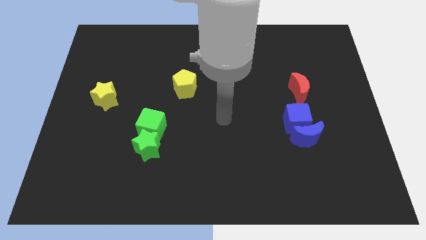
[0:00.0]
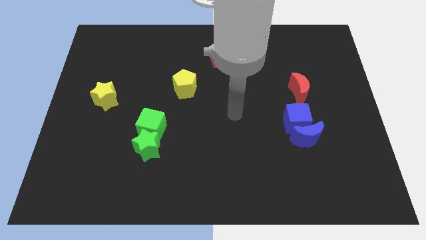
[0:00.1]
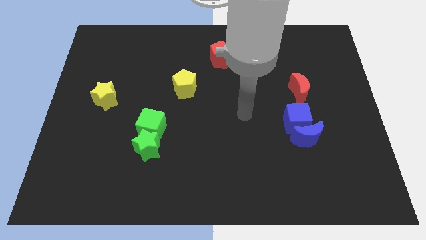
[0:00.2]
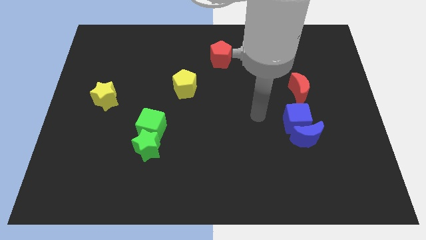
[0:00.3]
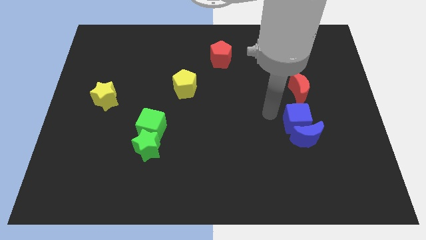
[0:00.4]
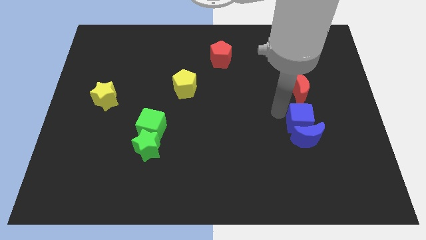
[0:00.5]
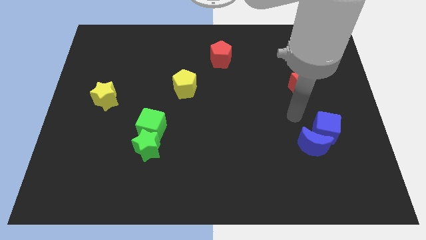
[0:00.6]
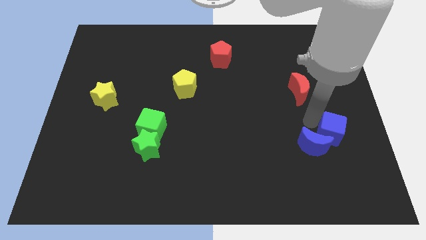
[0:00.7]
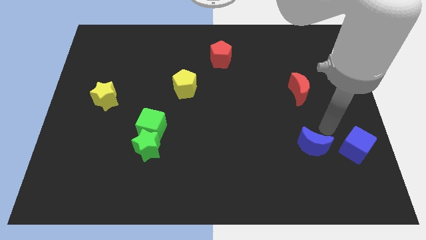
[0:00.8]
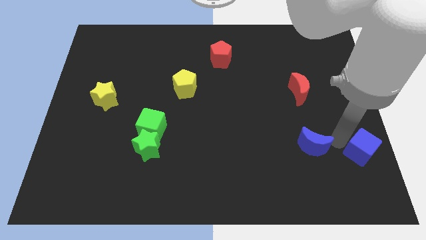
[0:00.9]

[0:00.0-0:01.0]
pull the blue moon apart from the blue cube

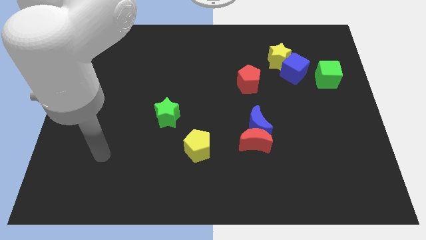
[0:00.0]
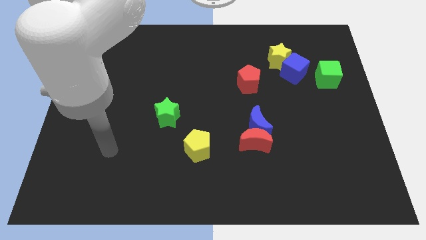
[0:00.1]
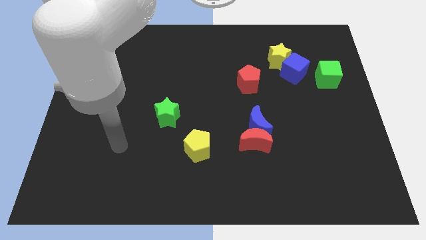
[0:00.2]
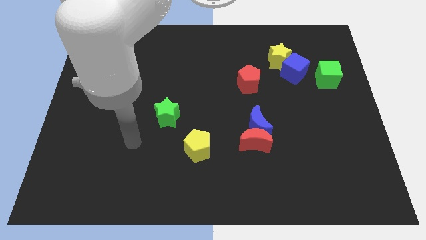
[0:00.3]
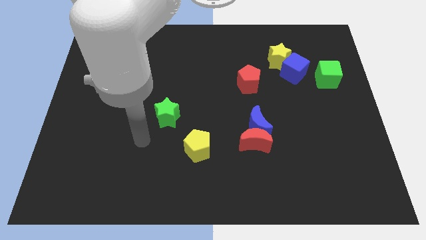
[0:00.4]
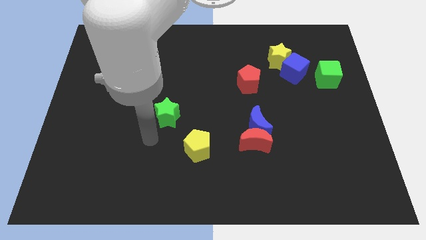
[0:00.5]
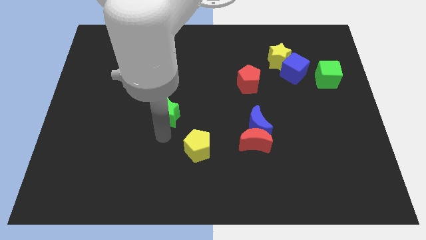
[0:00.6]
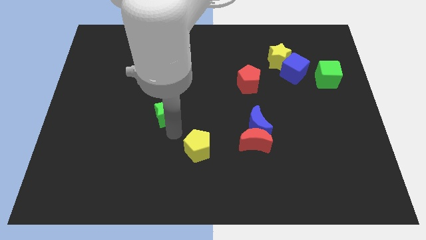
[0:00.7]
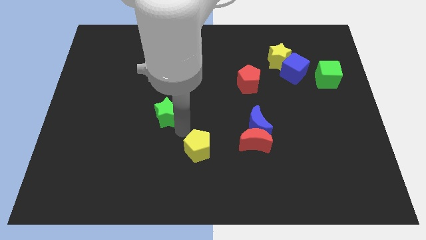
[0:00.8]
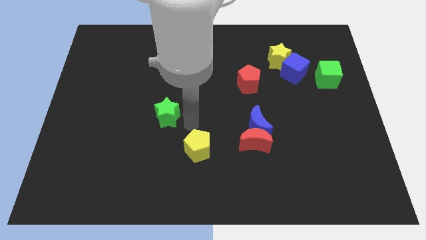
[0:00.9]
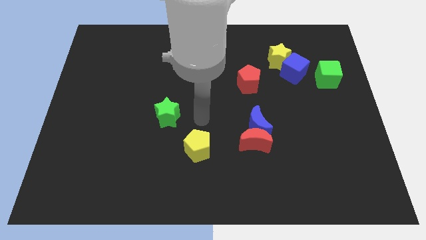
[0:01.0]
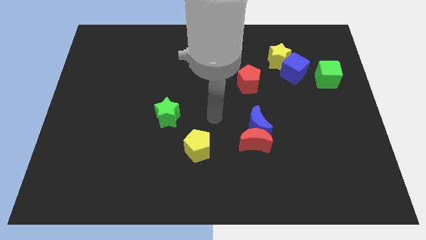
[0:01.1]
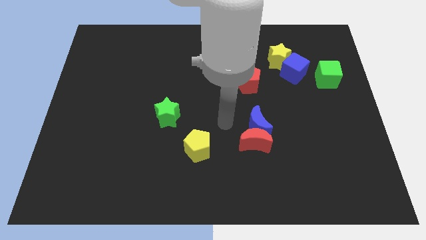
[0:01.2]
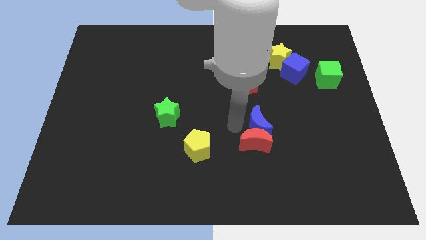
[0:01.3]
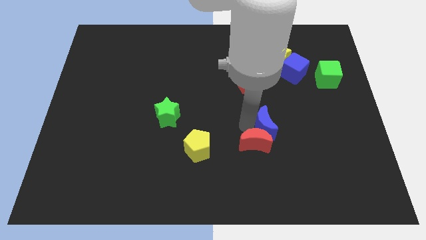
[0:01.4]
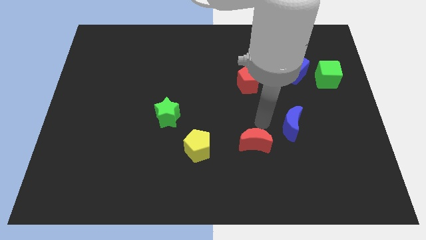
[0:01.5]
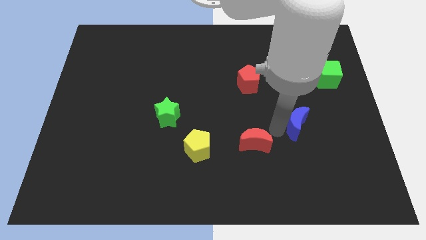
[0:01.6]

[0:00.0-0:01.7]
move the red moon away from the blue moon

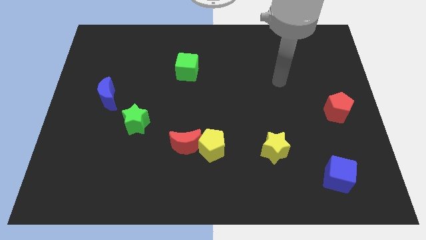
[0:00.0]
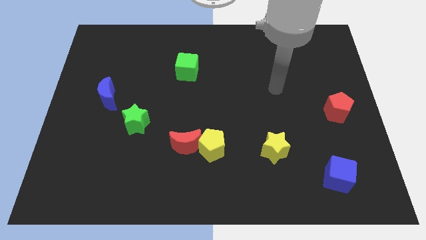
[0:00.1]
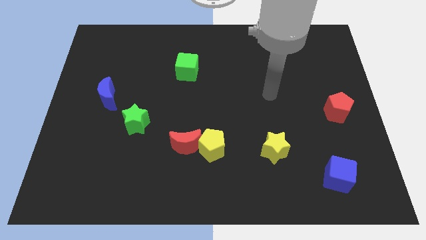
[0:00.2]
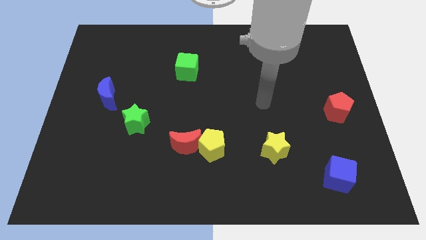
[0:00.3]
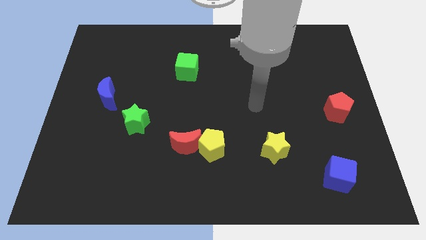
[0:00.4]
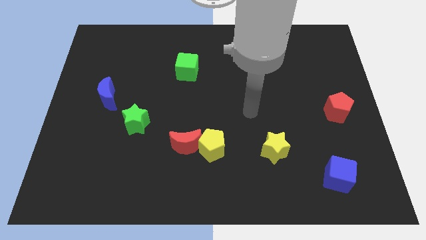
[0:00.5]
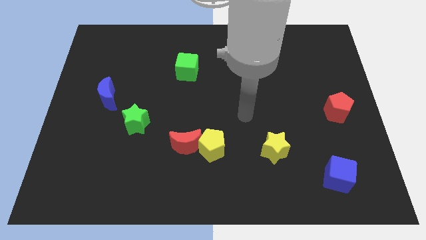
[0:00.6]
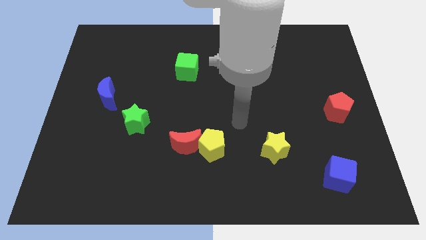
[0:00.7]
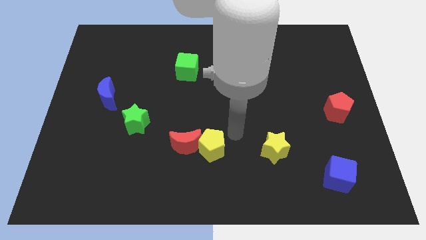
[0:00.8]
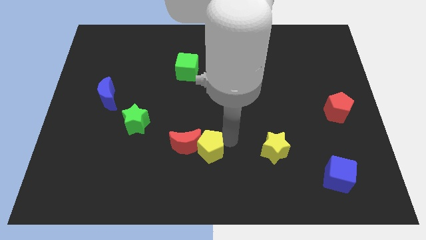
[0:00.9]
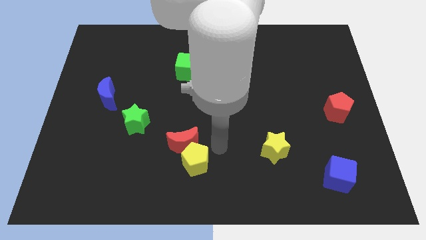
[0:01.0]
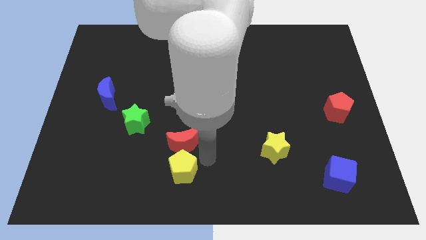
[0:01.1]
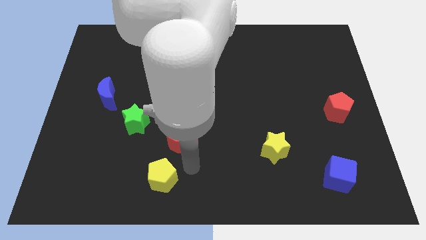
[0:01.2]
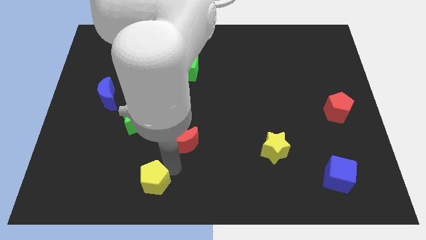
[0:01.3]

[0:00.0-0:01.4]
move the red moon away from the yellow pentagon

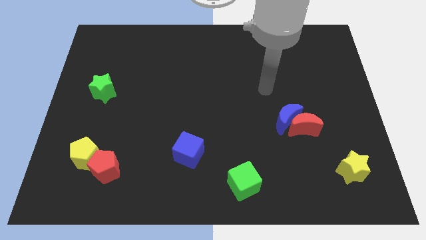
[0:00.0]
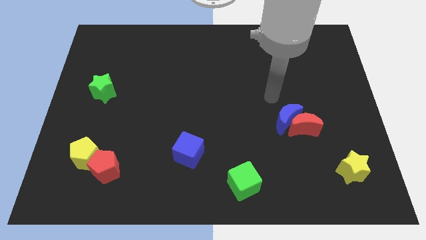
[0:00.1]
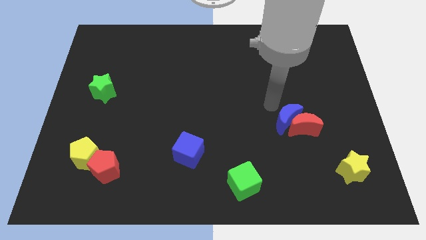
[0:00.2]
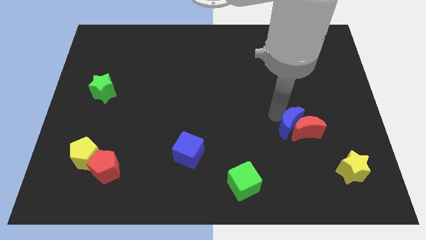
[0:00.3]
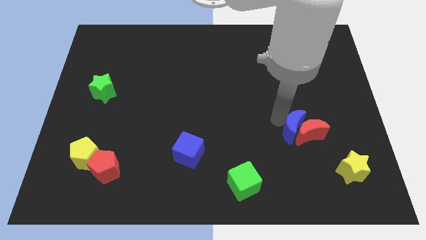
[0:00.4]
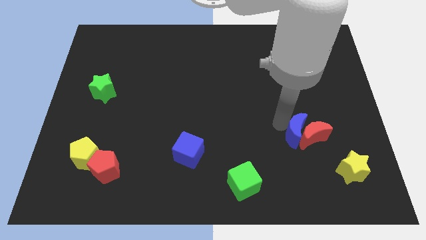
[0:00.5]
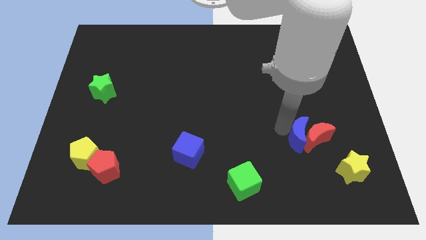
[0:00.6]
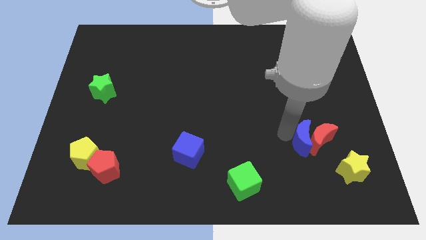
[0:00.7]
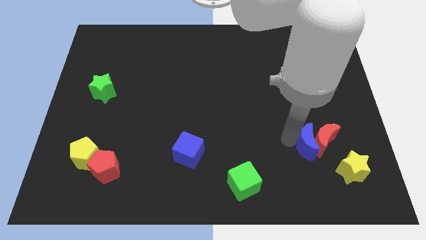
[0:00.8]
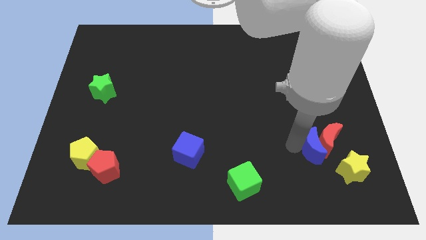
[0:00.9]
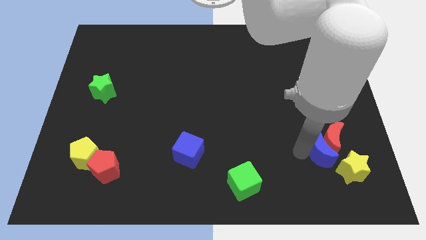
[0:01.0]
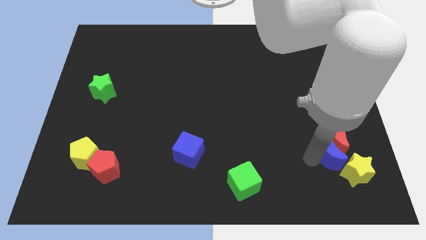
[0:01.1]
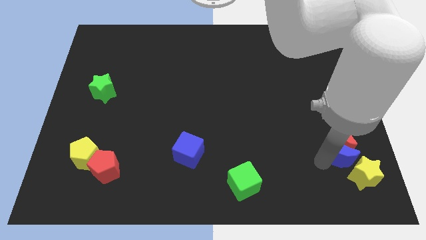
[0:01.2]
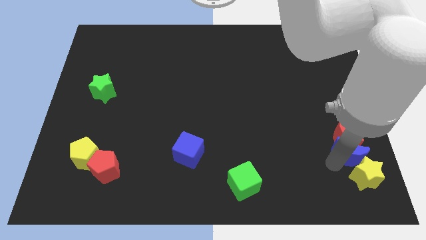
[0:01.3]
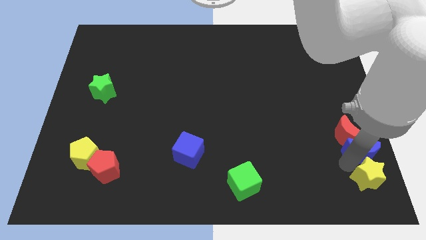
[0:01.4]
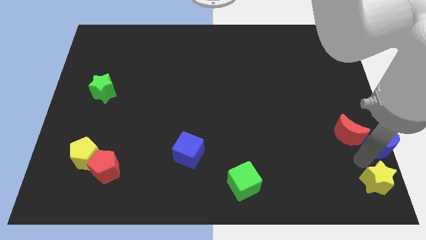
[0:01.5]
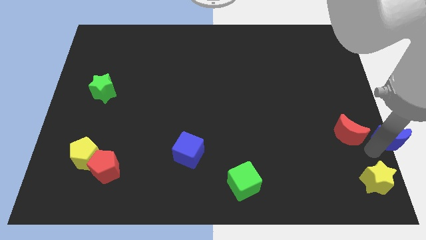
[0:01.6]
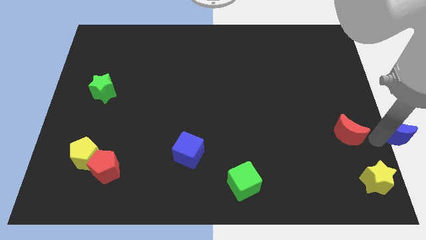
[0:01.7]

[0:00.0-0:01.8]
pull the red moon apart from the blue moon

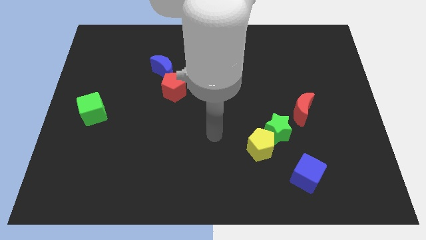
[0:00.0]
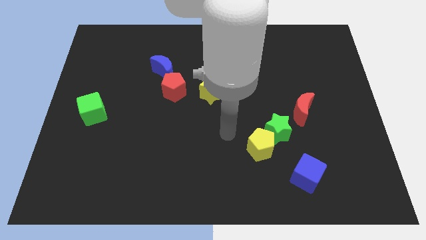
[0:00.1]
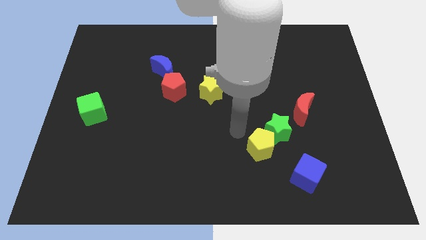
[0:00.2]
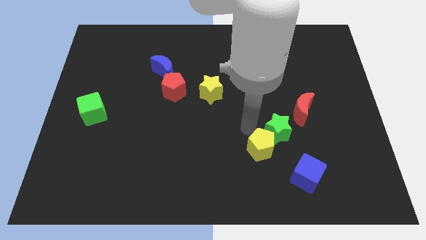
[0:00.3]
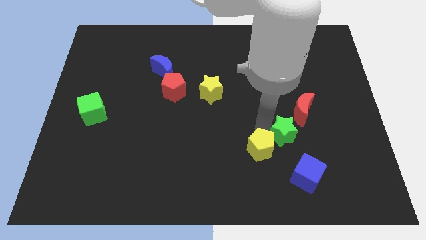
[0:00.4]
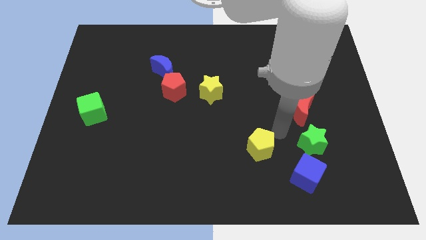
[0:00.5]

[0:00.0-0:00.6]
pull the yellow pentagon apart from the green star

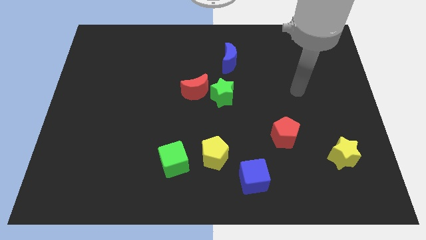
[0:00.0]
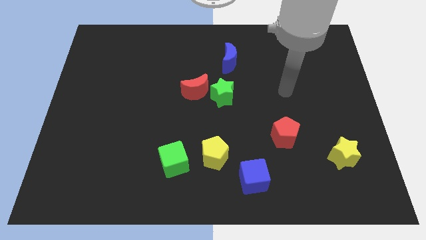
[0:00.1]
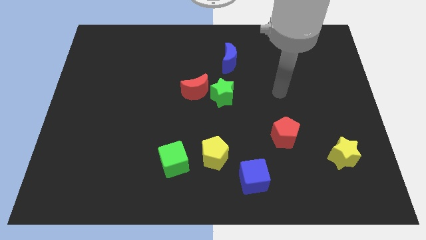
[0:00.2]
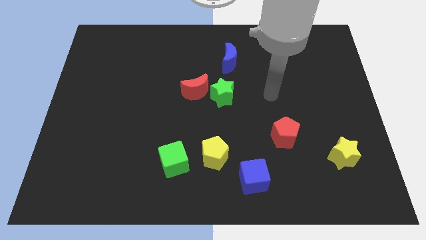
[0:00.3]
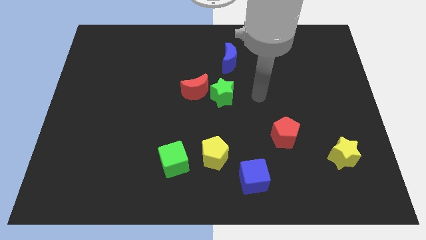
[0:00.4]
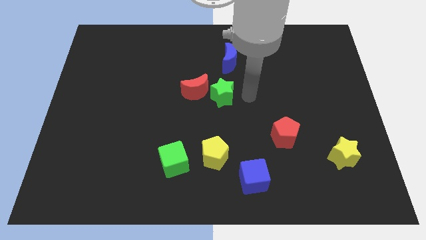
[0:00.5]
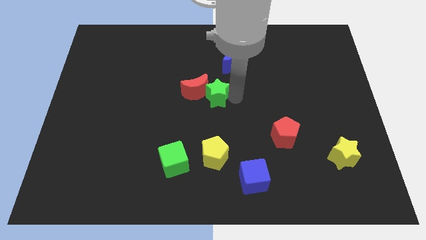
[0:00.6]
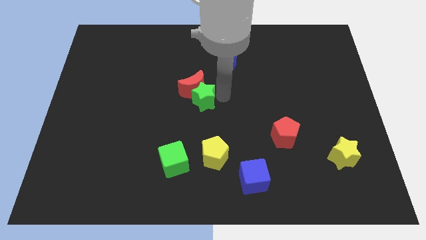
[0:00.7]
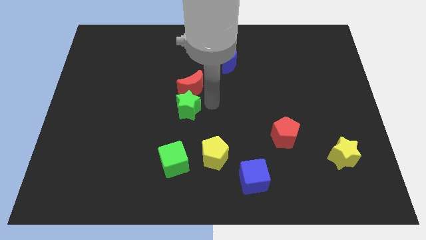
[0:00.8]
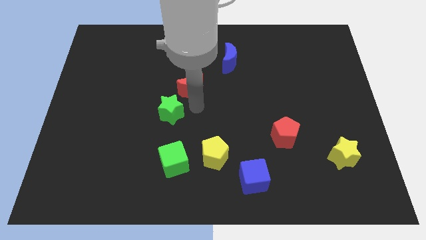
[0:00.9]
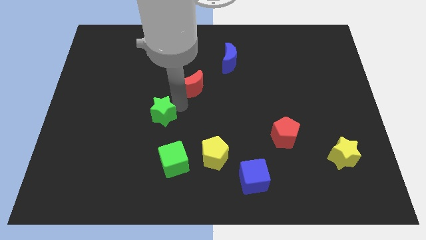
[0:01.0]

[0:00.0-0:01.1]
move the red moon away from the green star

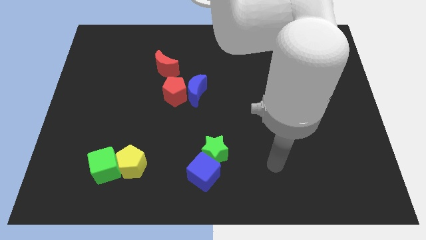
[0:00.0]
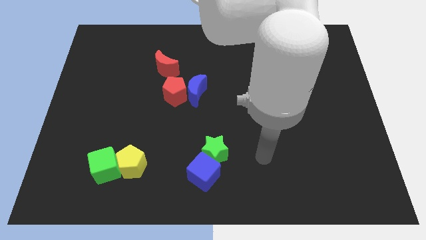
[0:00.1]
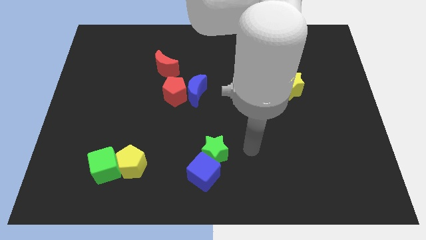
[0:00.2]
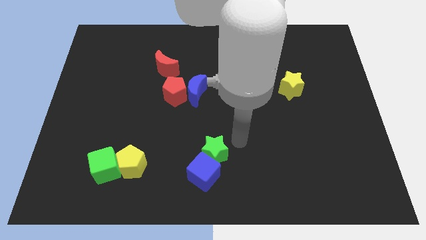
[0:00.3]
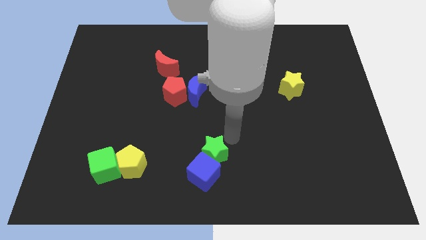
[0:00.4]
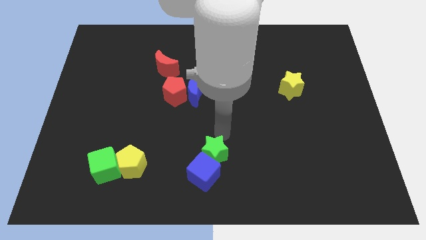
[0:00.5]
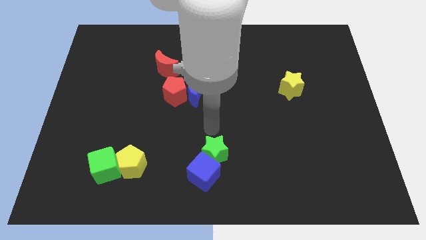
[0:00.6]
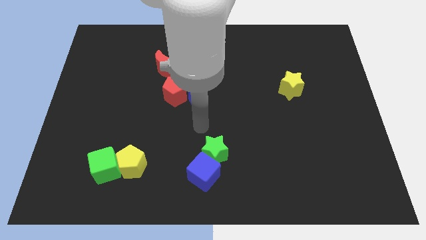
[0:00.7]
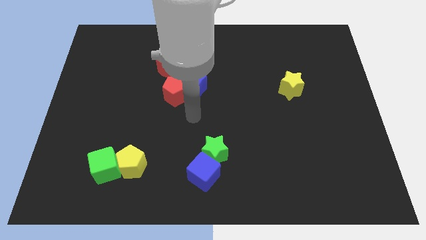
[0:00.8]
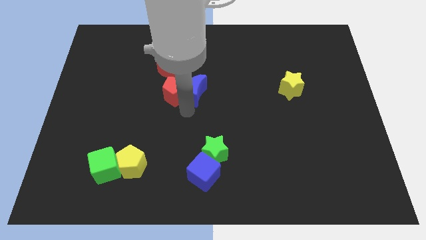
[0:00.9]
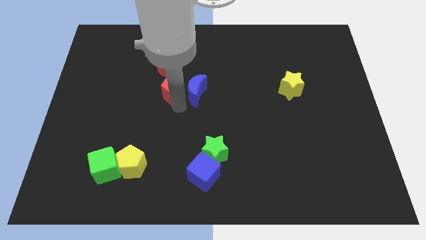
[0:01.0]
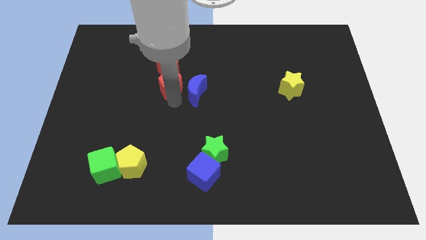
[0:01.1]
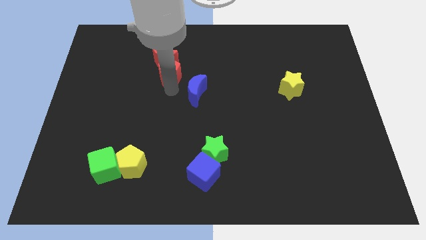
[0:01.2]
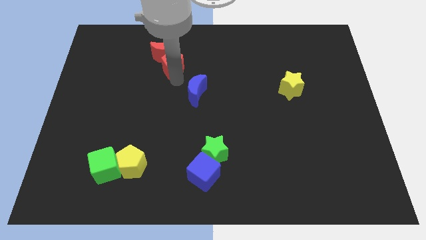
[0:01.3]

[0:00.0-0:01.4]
separate the blue moon from the red pentagon

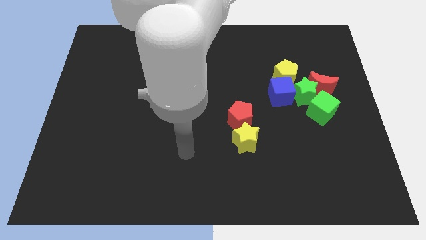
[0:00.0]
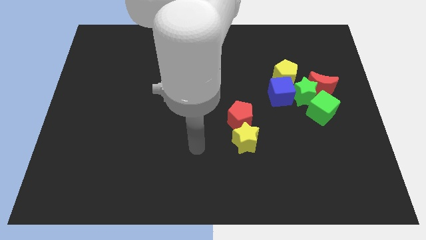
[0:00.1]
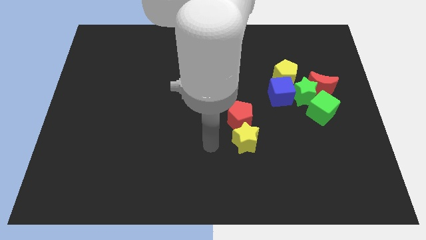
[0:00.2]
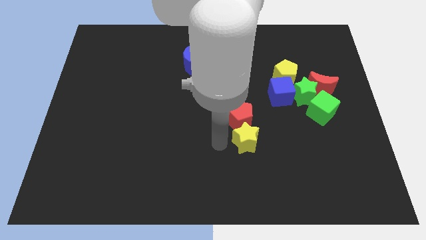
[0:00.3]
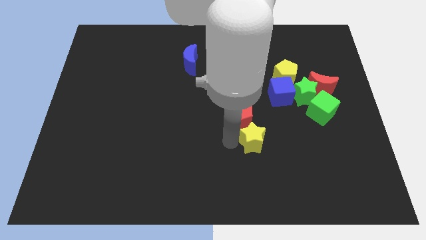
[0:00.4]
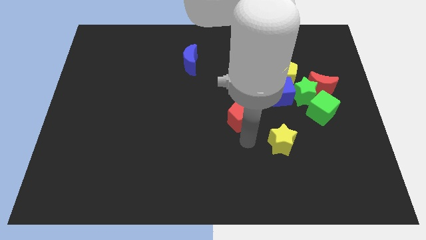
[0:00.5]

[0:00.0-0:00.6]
move the red pentagon away from the yellow star
